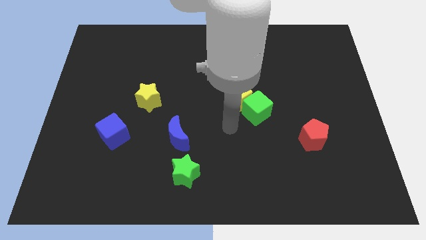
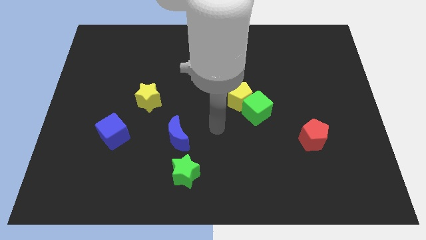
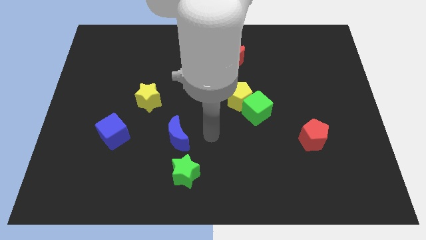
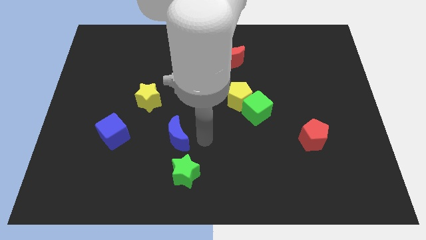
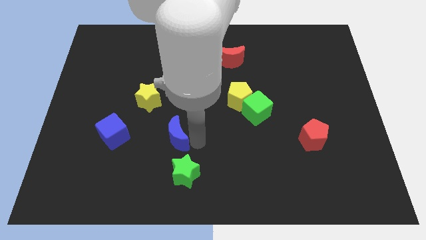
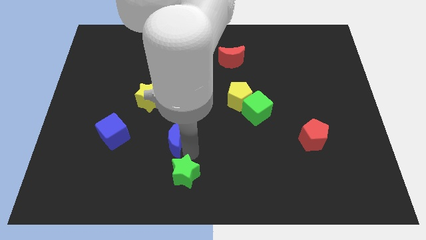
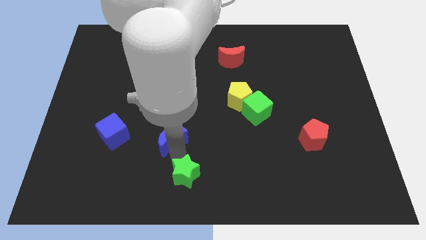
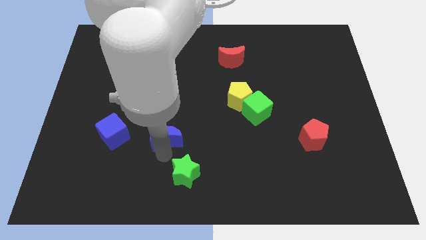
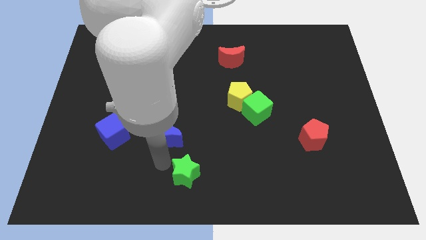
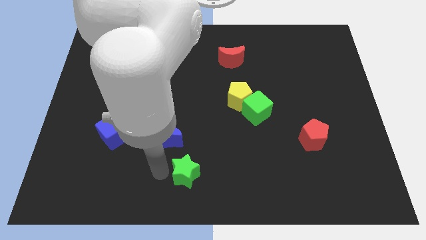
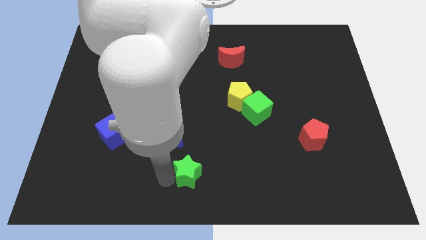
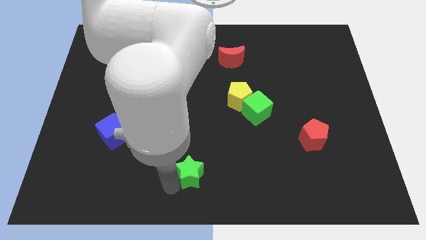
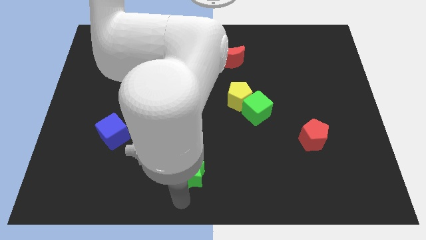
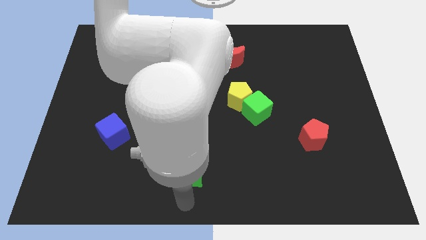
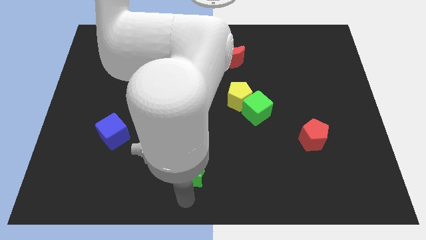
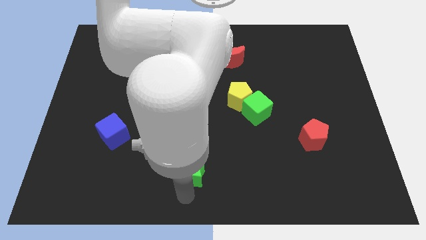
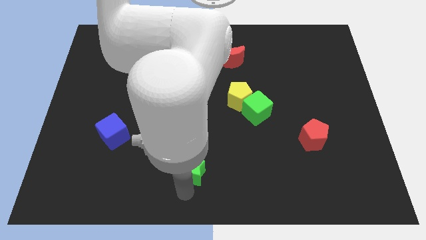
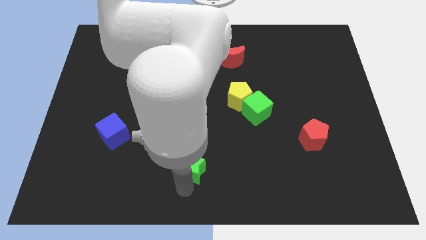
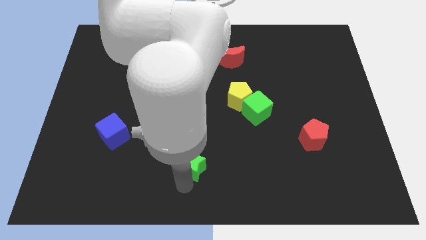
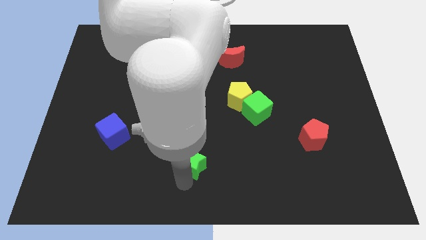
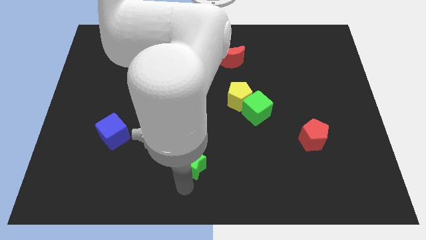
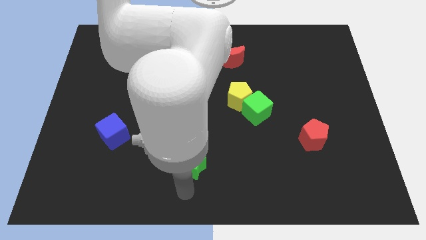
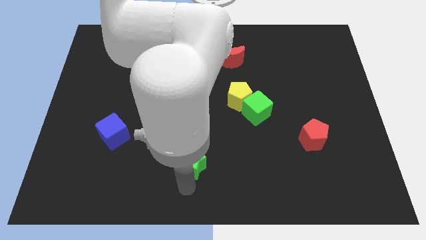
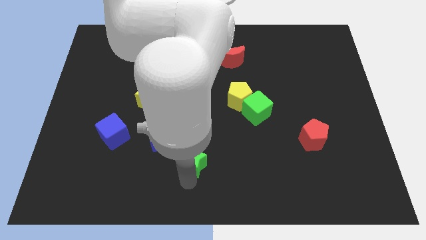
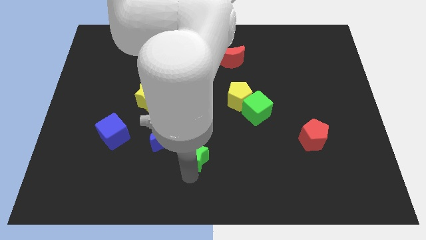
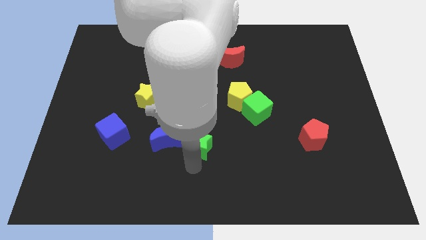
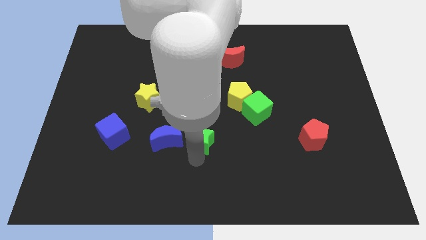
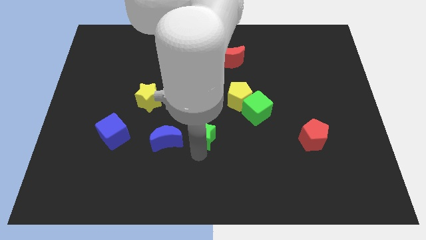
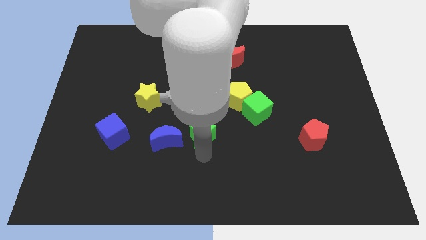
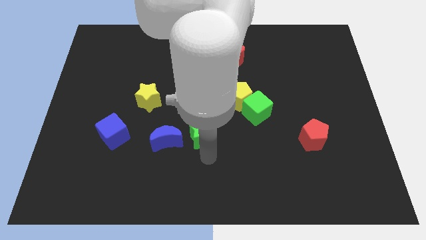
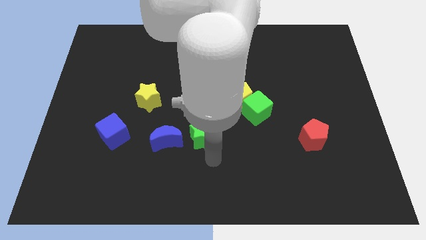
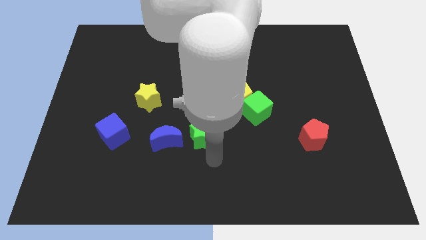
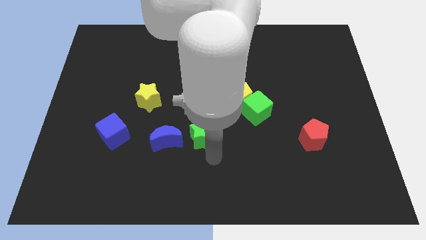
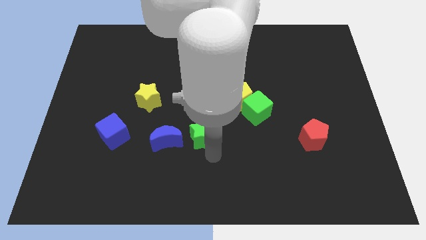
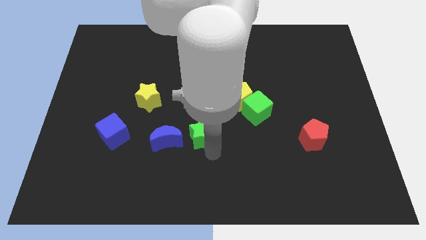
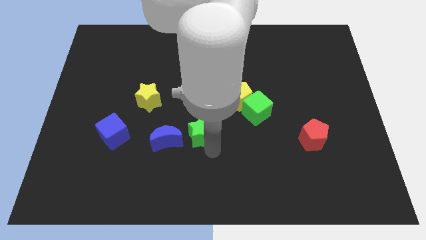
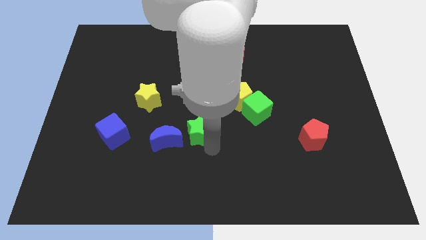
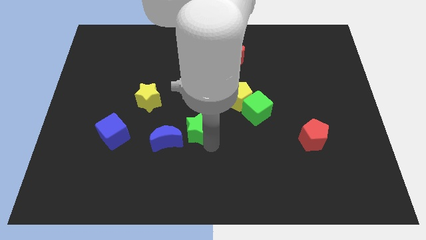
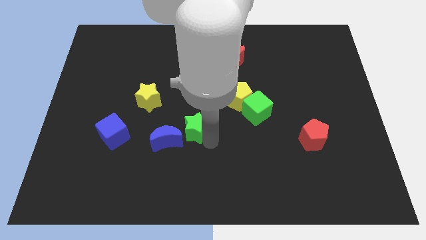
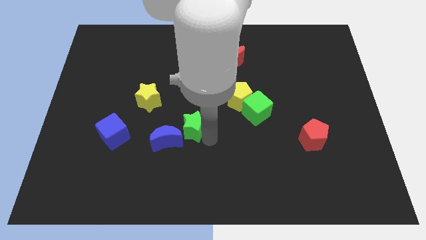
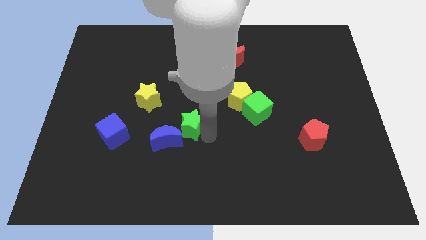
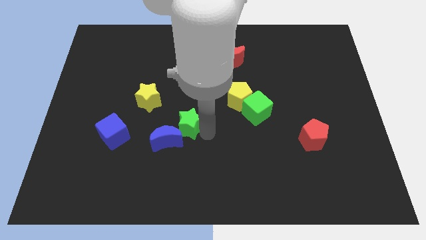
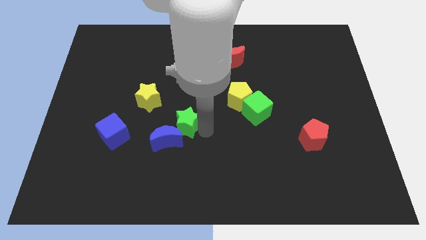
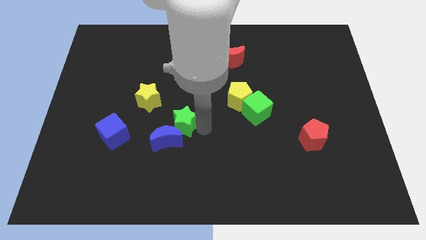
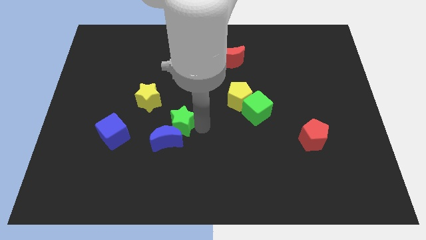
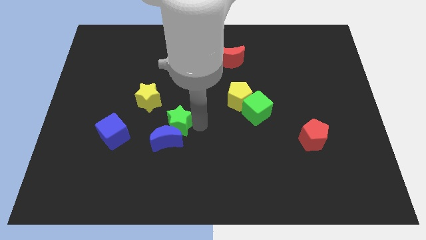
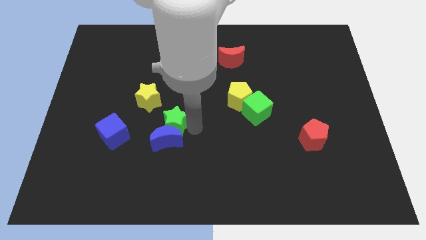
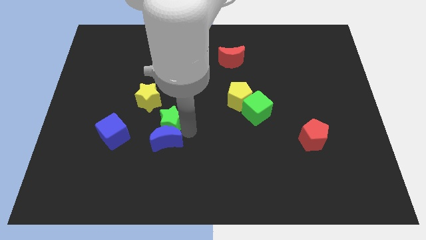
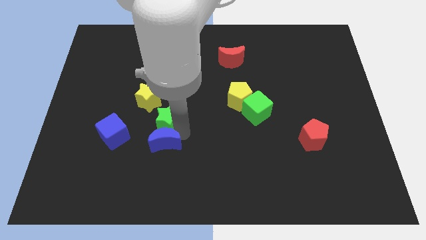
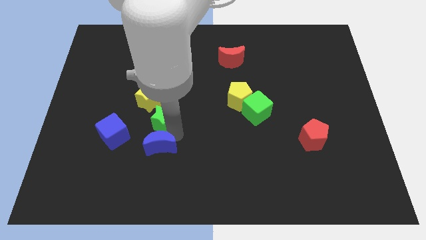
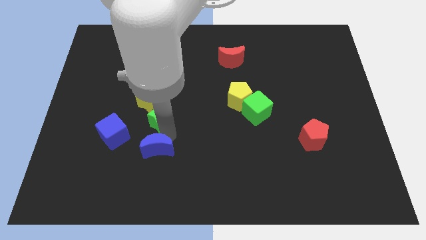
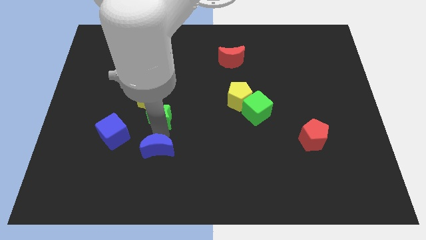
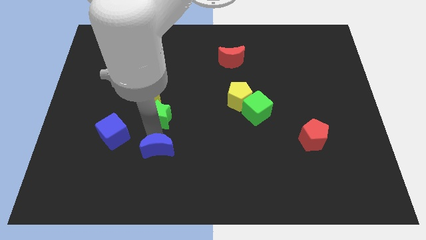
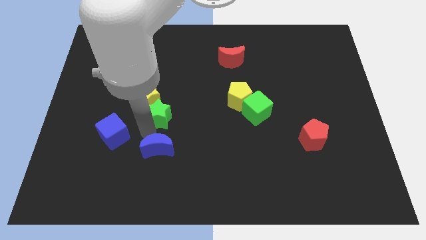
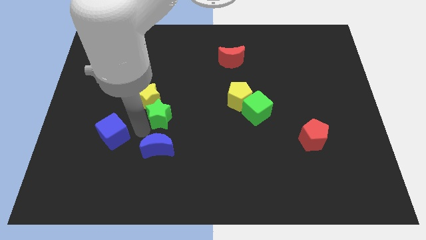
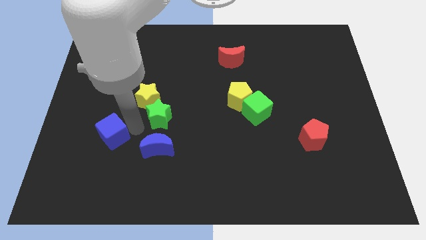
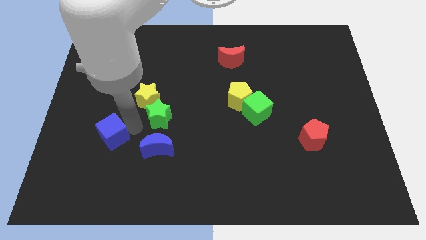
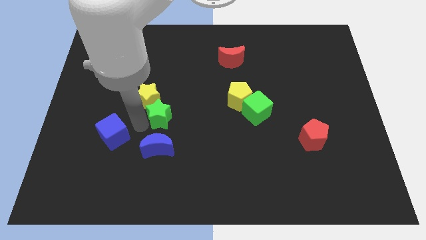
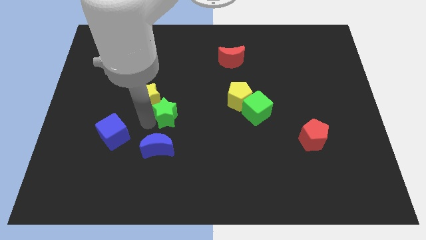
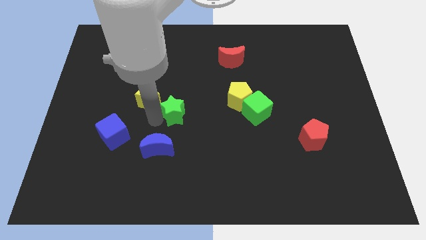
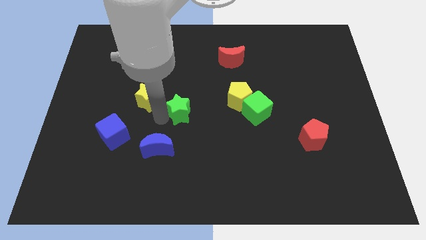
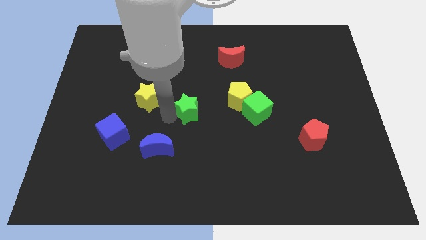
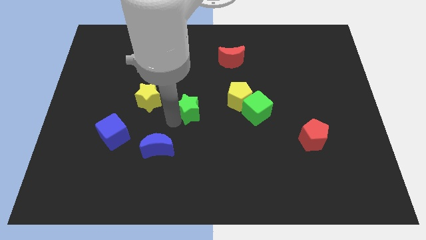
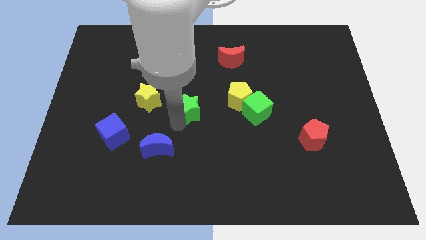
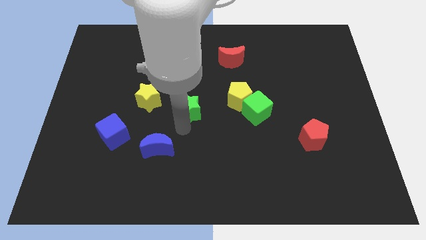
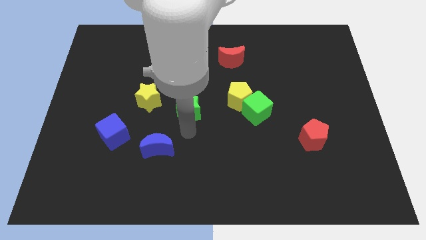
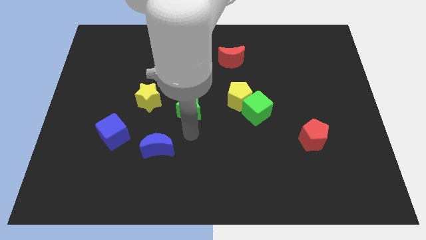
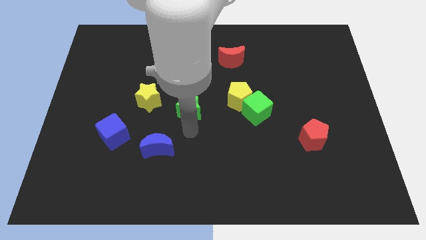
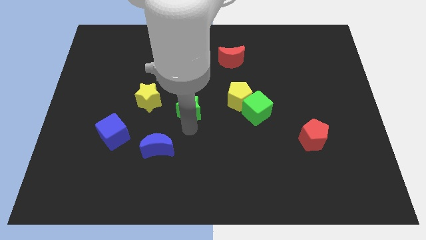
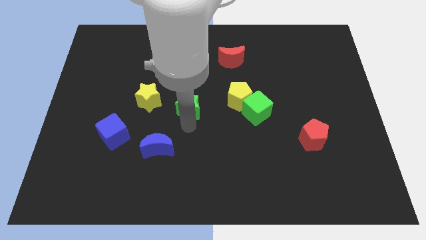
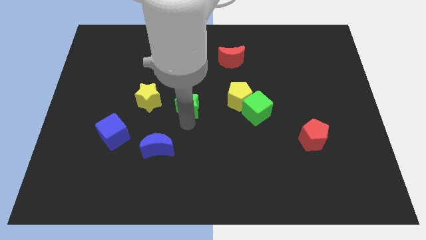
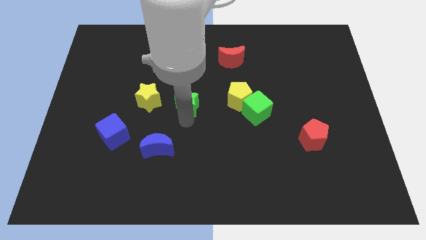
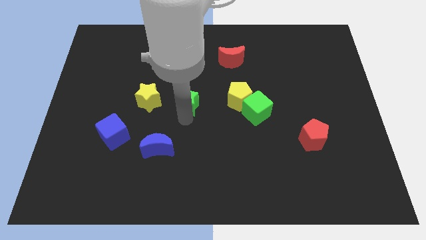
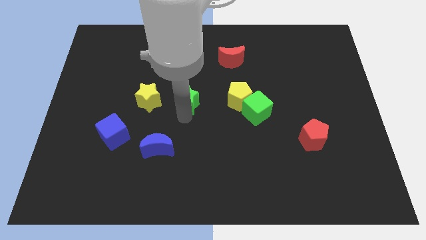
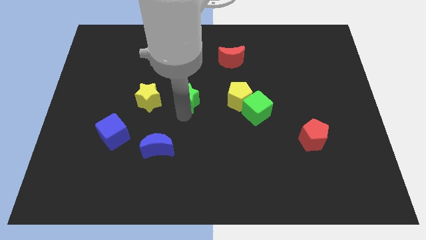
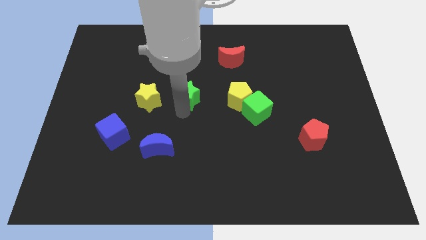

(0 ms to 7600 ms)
push the green star upwards

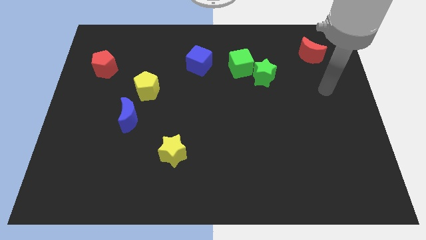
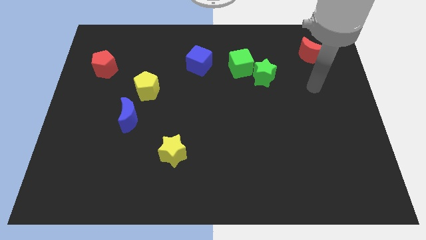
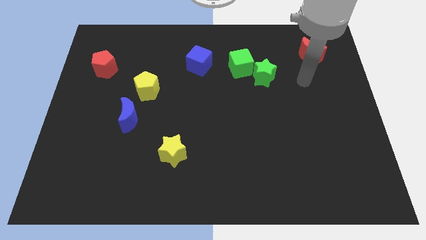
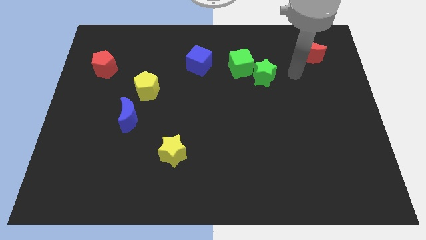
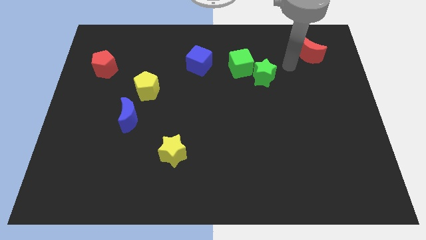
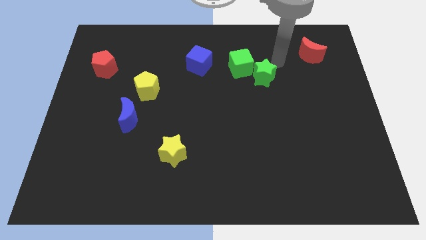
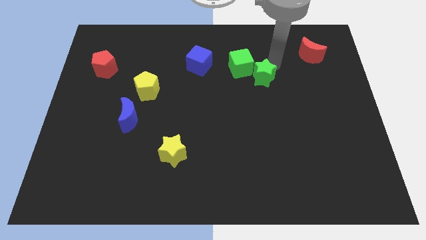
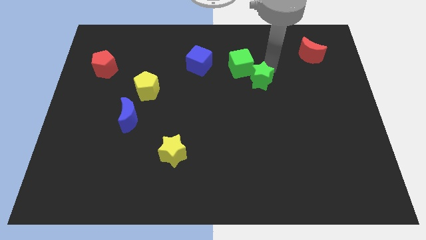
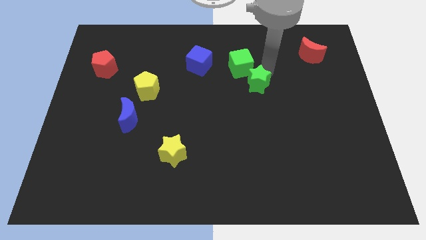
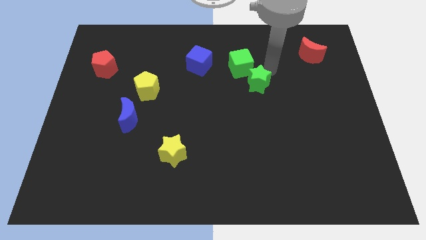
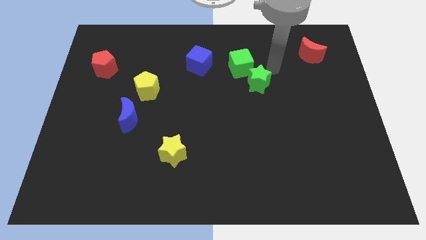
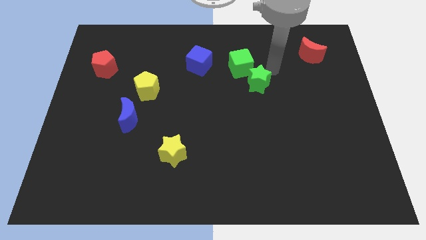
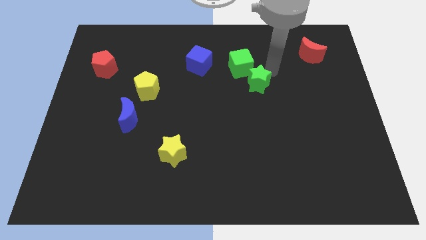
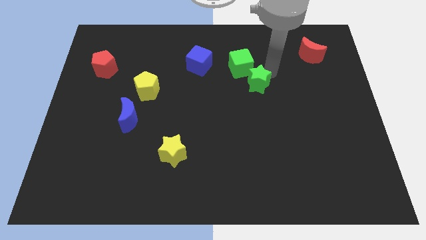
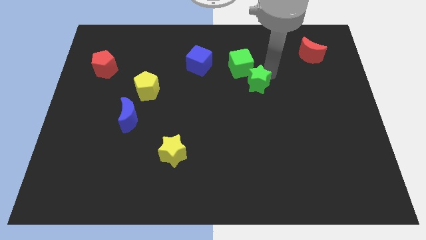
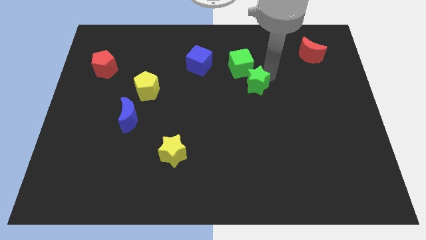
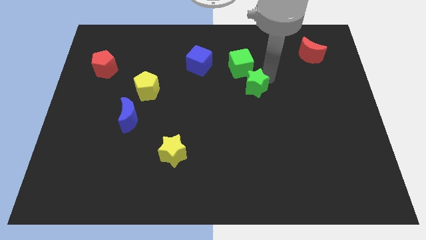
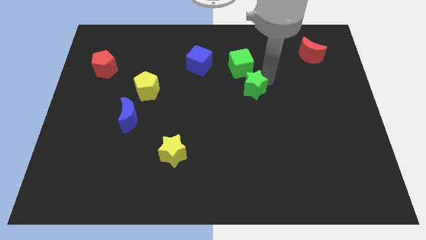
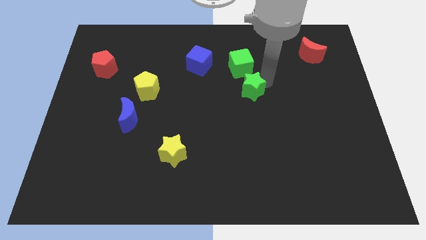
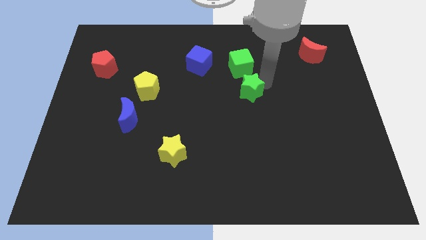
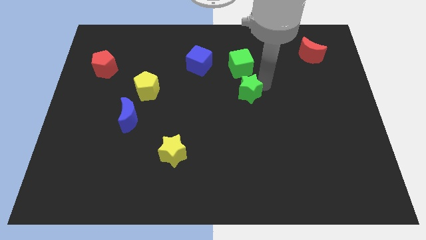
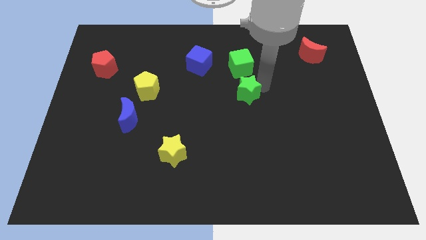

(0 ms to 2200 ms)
push the green star a little bit diagonally downwards and to the left
